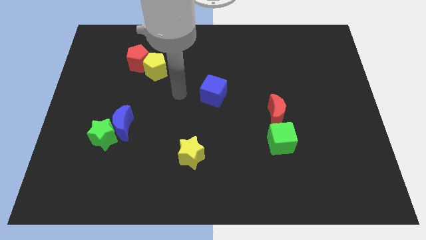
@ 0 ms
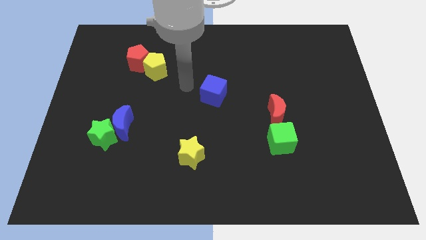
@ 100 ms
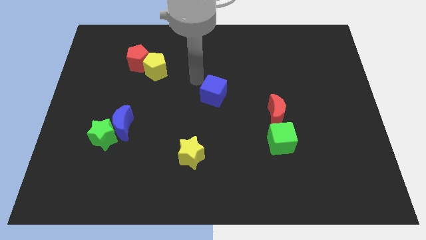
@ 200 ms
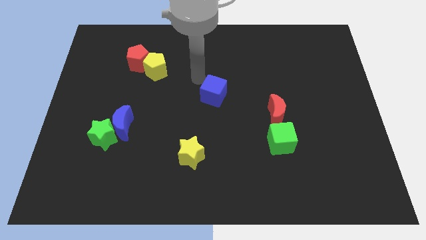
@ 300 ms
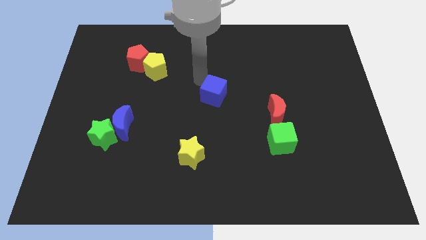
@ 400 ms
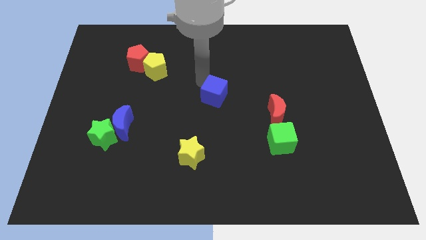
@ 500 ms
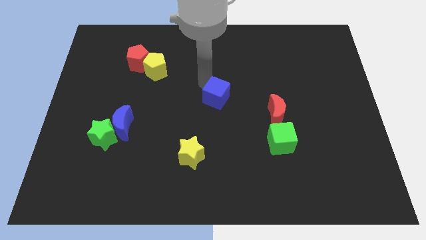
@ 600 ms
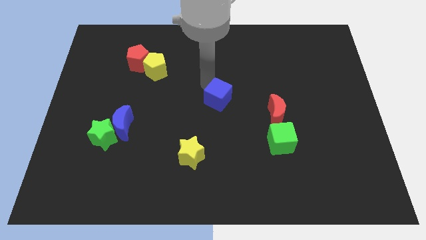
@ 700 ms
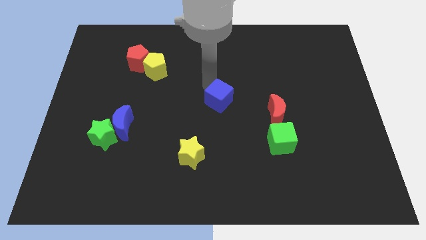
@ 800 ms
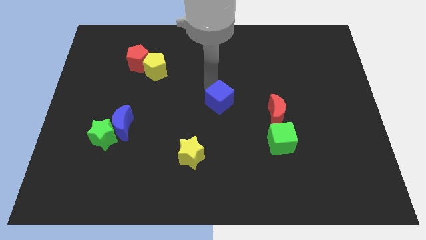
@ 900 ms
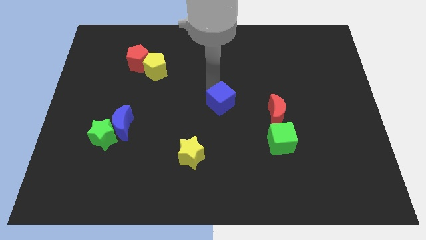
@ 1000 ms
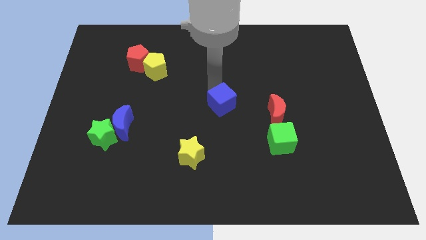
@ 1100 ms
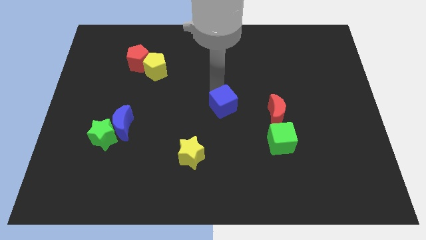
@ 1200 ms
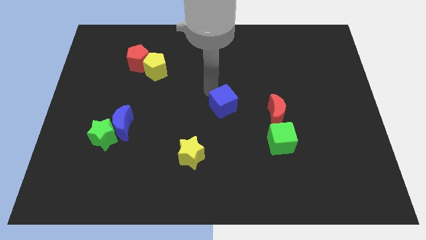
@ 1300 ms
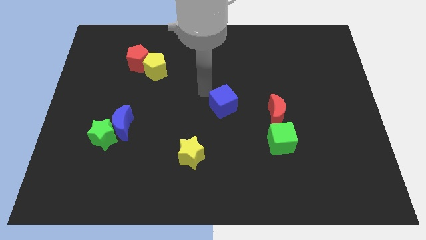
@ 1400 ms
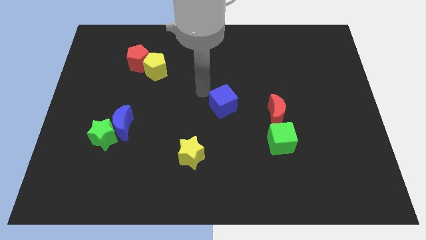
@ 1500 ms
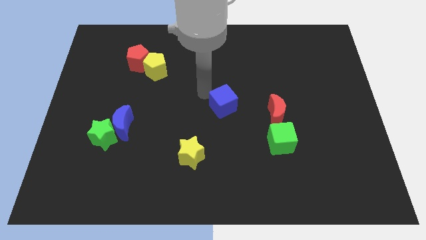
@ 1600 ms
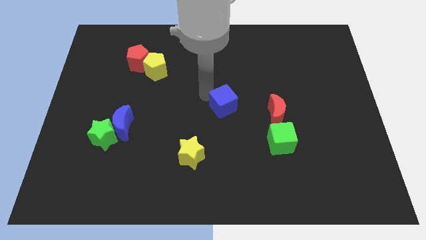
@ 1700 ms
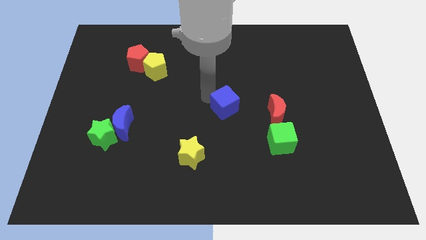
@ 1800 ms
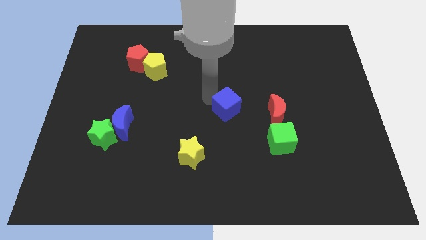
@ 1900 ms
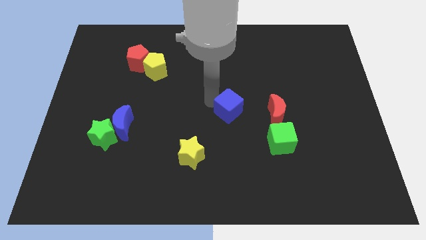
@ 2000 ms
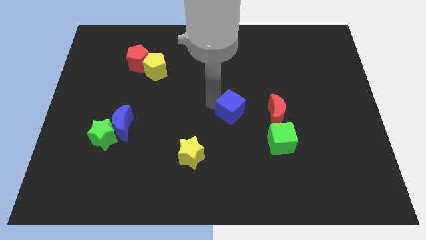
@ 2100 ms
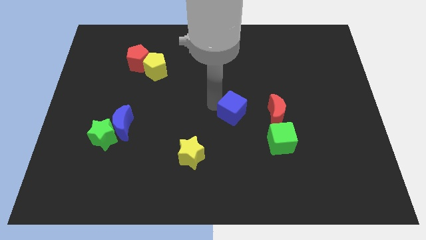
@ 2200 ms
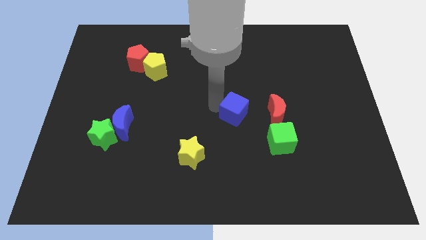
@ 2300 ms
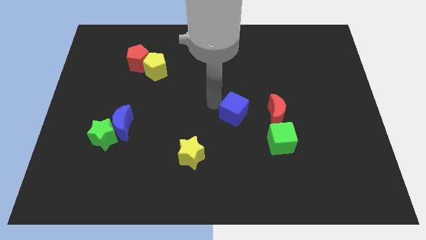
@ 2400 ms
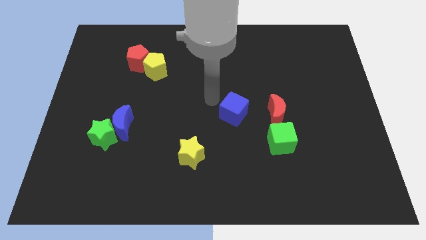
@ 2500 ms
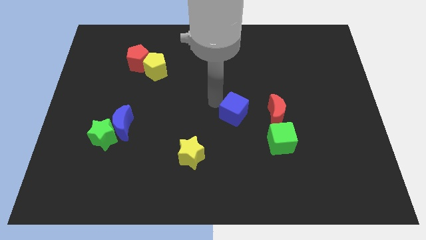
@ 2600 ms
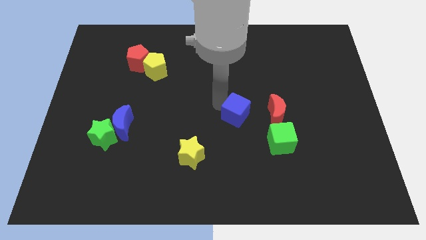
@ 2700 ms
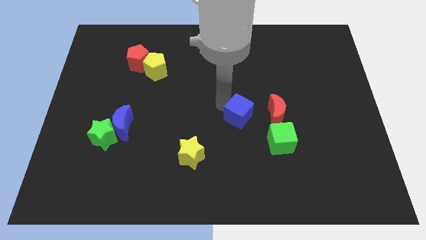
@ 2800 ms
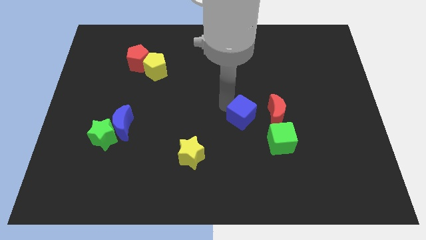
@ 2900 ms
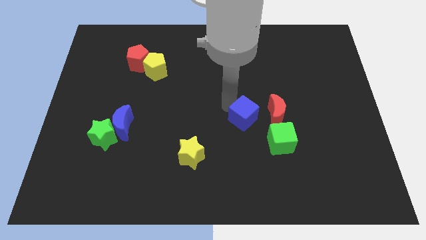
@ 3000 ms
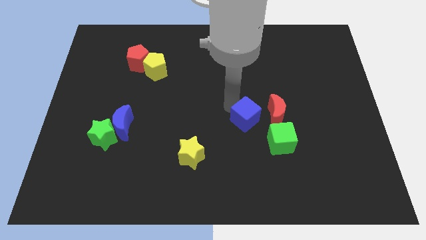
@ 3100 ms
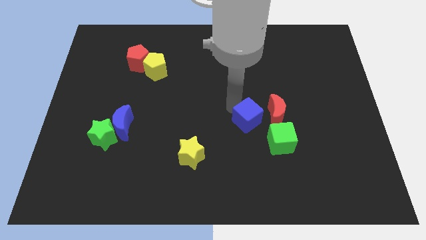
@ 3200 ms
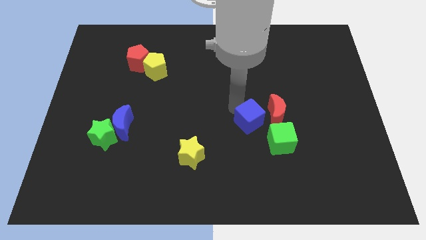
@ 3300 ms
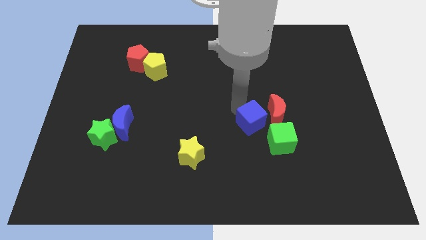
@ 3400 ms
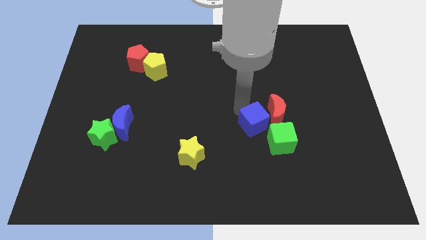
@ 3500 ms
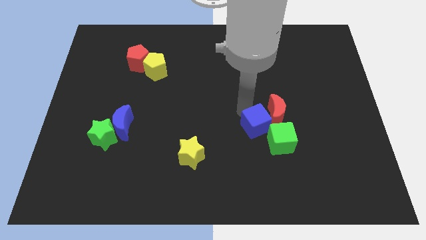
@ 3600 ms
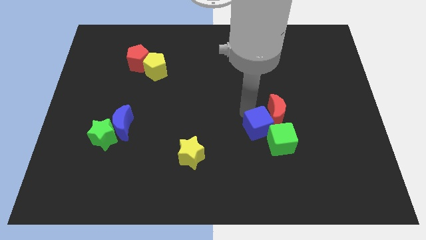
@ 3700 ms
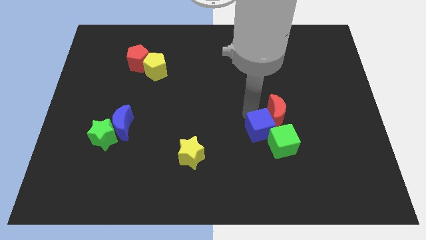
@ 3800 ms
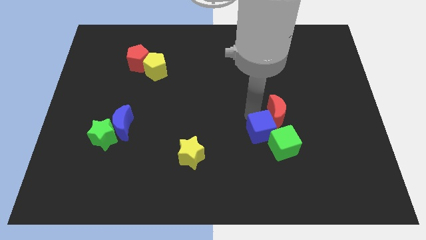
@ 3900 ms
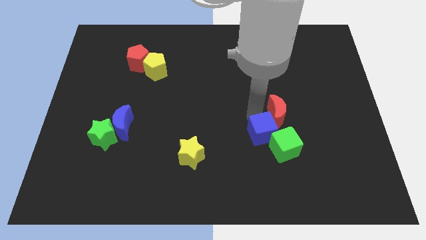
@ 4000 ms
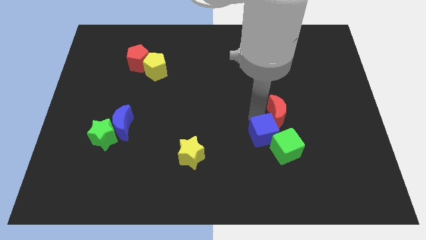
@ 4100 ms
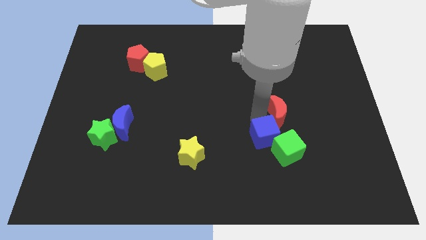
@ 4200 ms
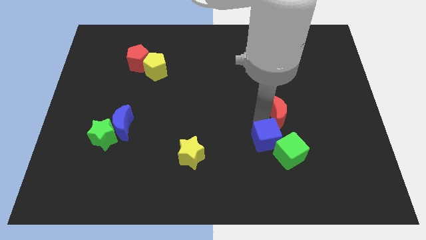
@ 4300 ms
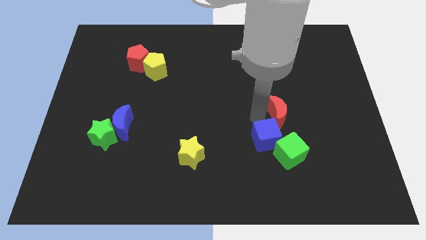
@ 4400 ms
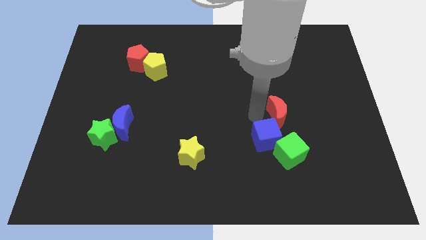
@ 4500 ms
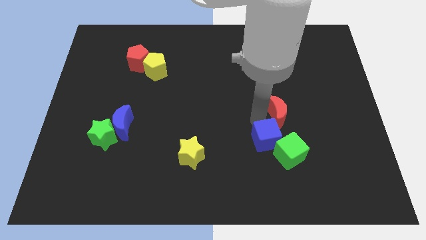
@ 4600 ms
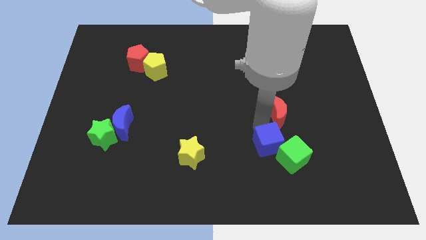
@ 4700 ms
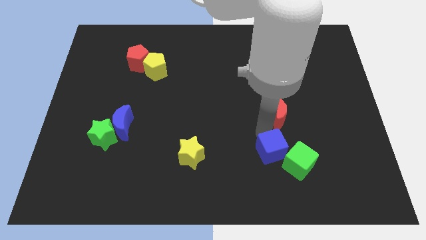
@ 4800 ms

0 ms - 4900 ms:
push the blue cube downwards and right

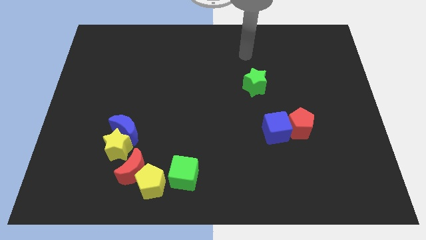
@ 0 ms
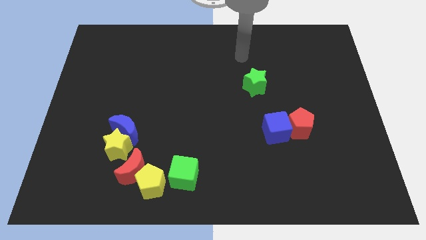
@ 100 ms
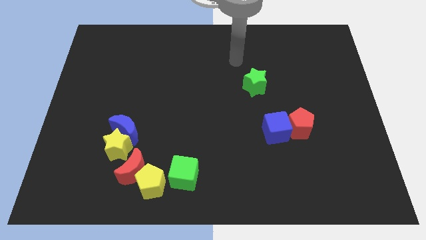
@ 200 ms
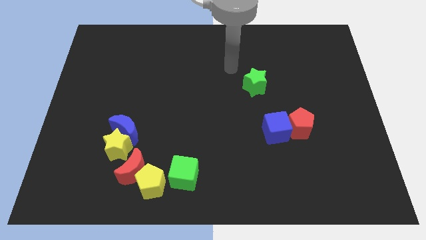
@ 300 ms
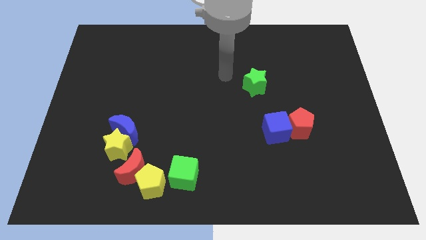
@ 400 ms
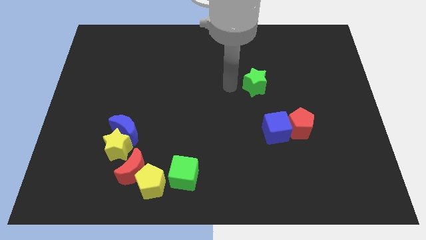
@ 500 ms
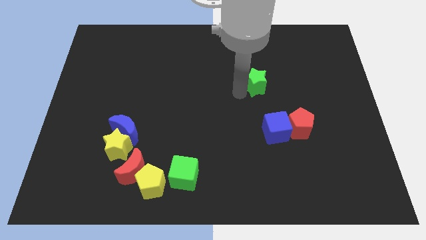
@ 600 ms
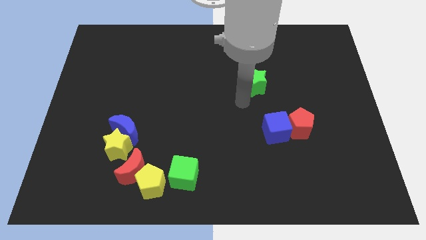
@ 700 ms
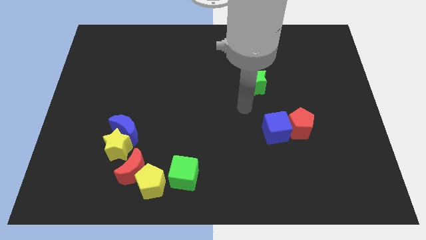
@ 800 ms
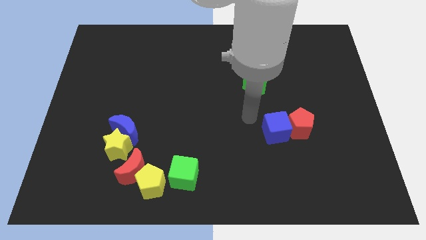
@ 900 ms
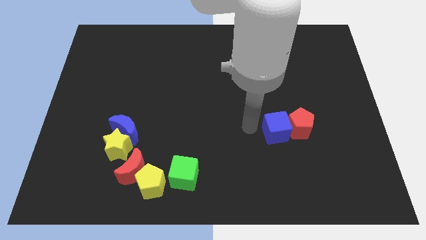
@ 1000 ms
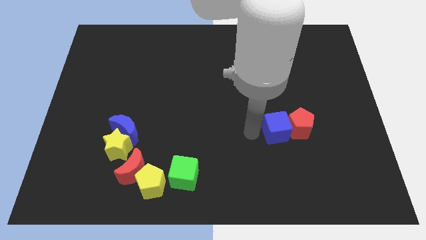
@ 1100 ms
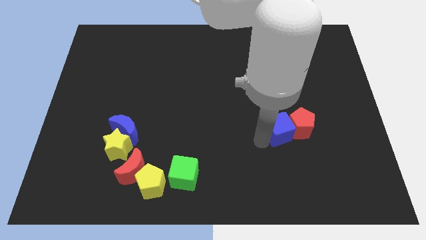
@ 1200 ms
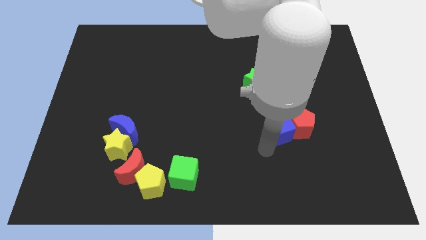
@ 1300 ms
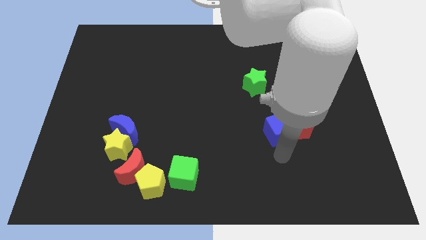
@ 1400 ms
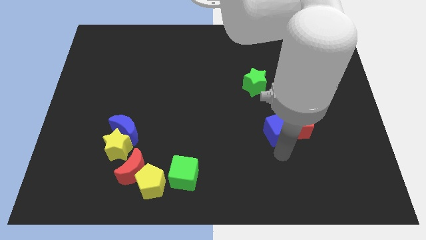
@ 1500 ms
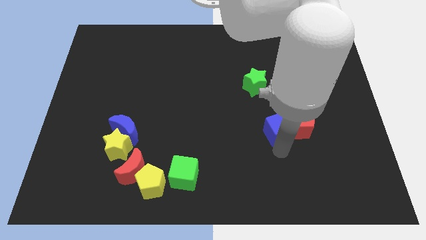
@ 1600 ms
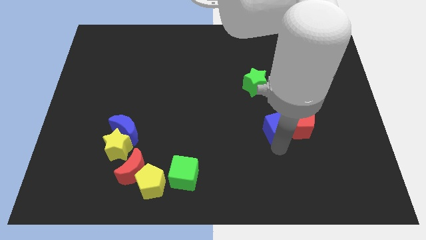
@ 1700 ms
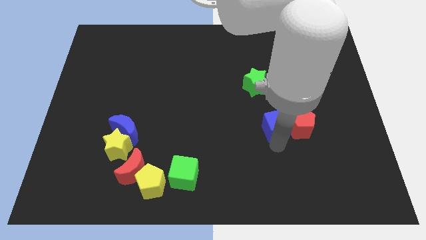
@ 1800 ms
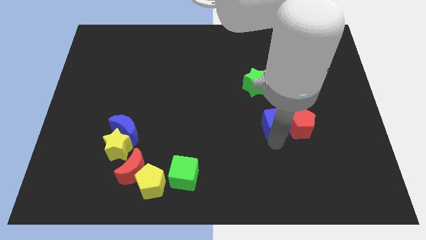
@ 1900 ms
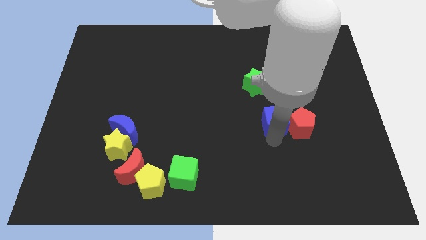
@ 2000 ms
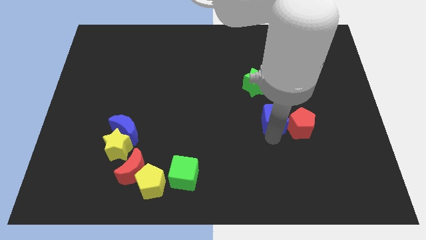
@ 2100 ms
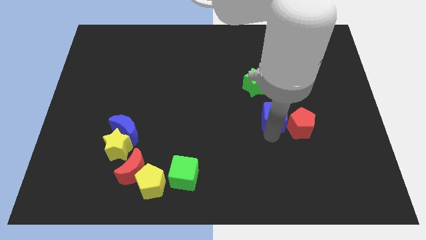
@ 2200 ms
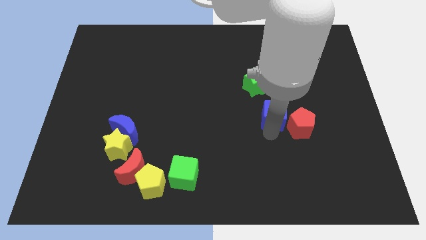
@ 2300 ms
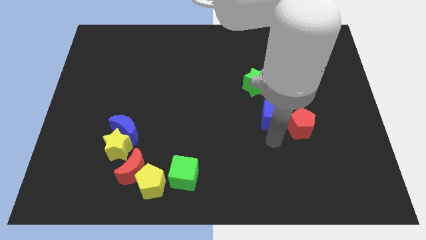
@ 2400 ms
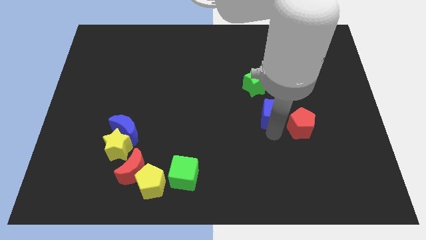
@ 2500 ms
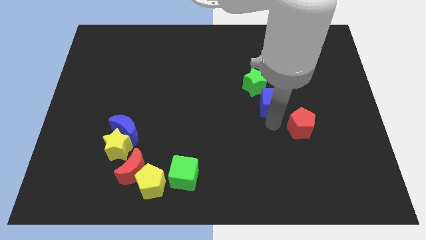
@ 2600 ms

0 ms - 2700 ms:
slide the blue cube somewhat up

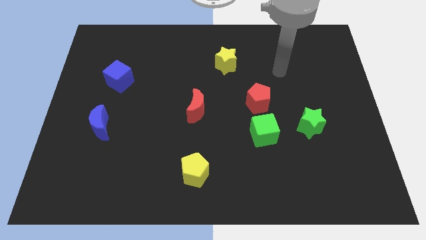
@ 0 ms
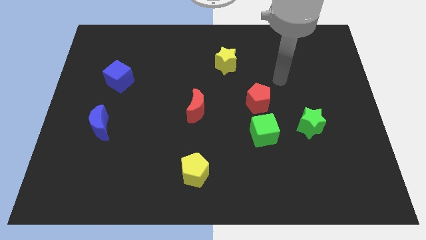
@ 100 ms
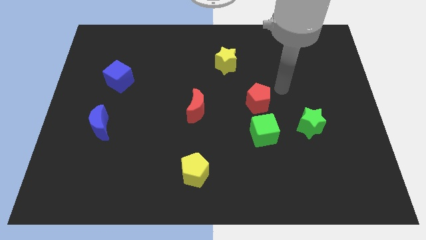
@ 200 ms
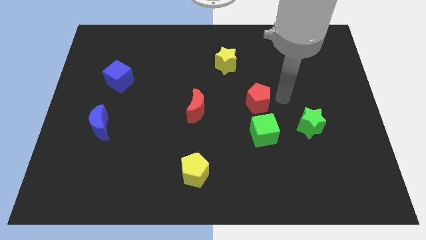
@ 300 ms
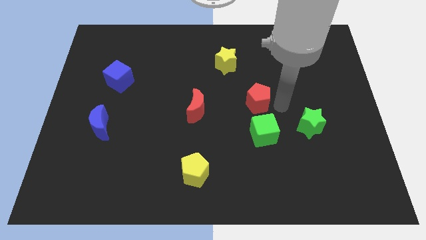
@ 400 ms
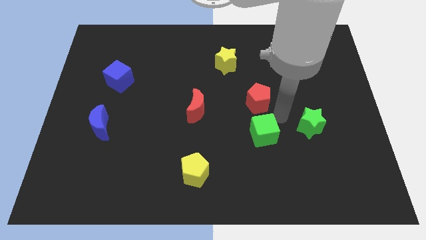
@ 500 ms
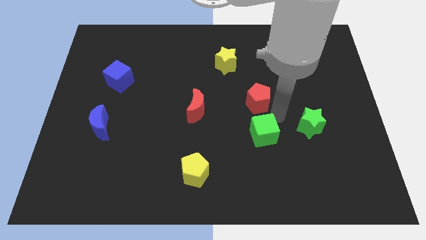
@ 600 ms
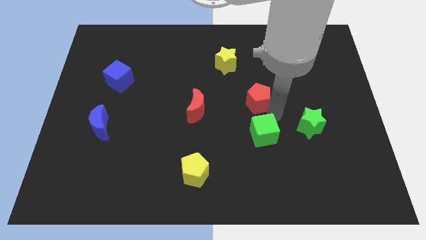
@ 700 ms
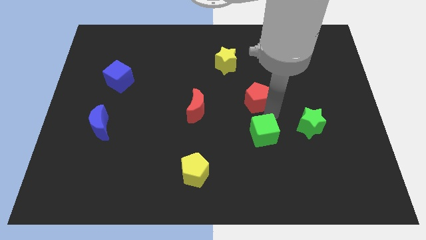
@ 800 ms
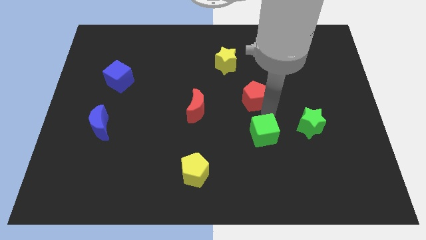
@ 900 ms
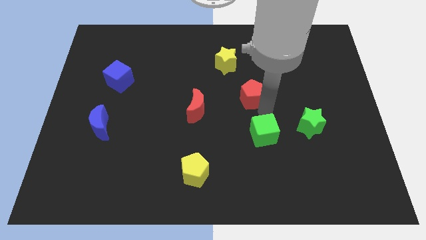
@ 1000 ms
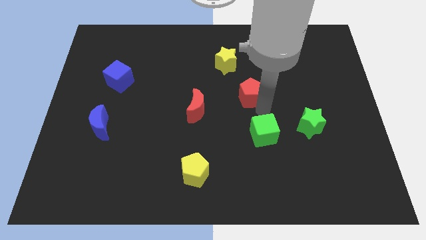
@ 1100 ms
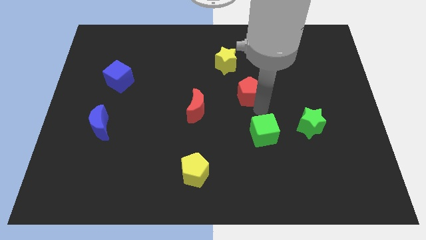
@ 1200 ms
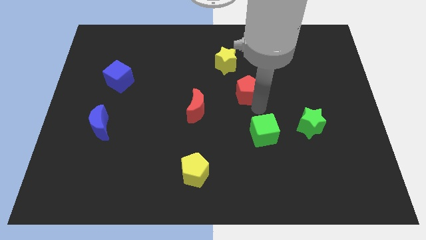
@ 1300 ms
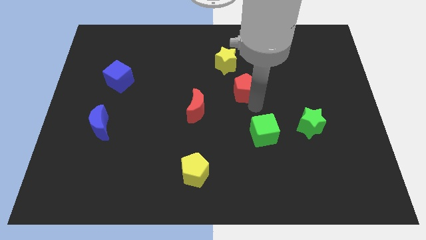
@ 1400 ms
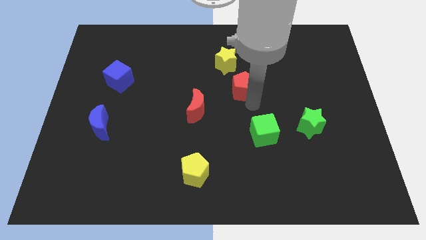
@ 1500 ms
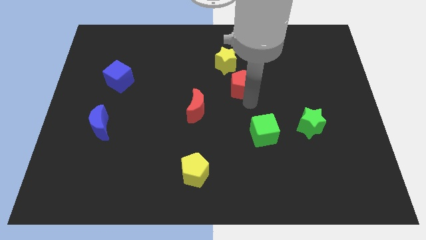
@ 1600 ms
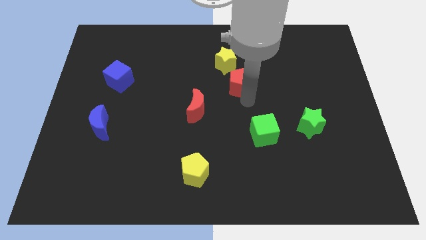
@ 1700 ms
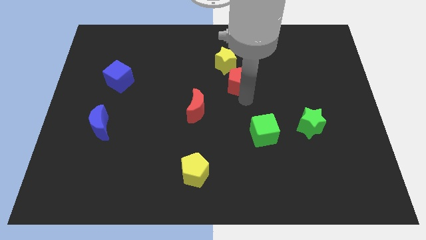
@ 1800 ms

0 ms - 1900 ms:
push the red pentagon somewhat upwards and then to the left
